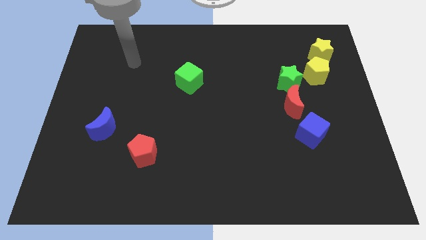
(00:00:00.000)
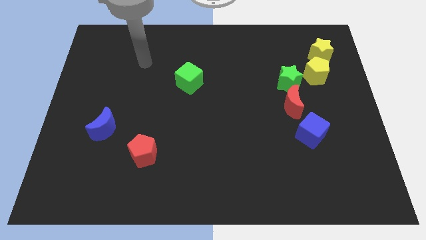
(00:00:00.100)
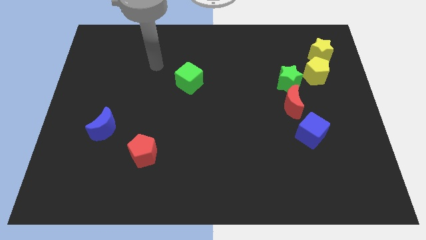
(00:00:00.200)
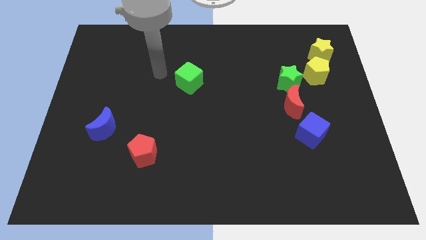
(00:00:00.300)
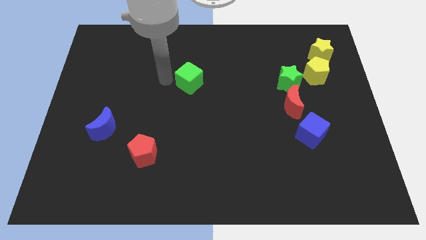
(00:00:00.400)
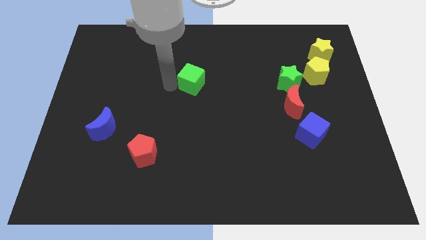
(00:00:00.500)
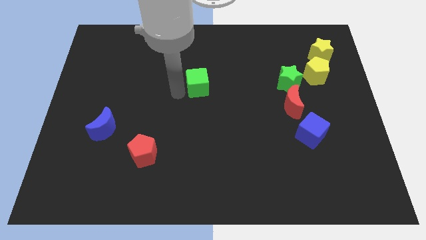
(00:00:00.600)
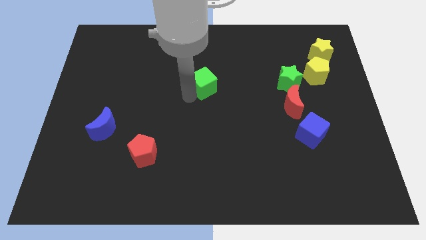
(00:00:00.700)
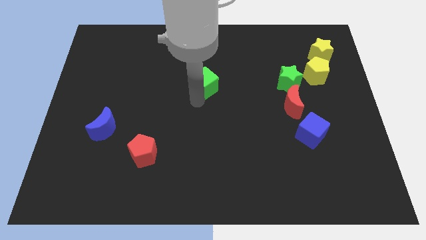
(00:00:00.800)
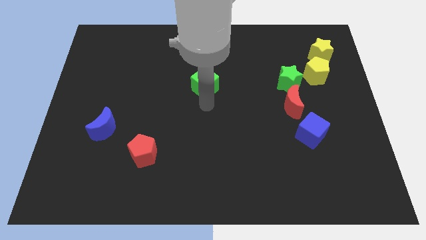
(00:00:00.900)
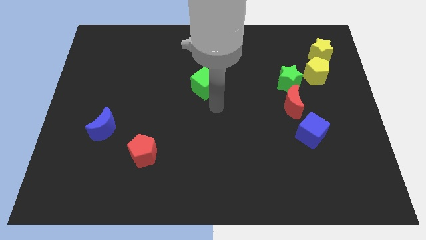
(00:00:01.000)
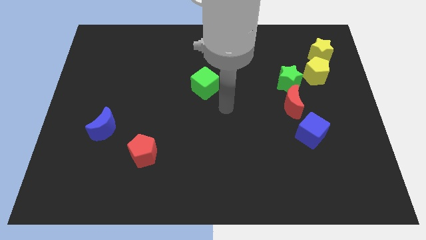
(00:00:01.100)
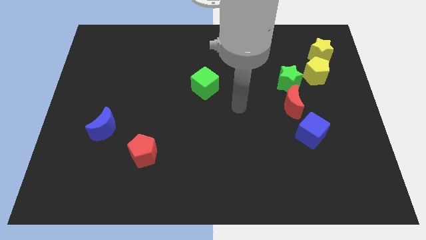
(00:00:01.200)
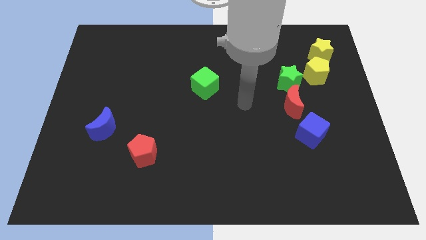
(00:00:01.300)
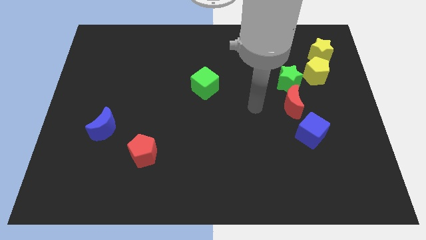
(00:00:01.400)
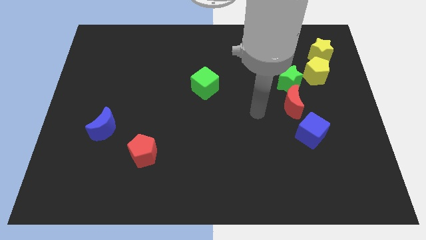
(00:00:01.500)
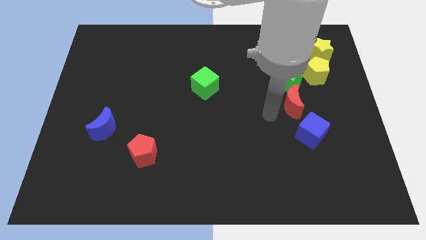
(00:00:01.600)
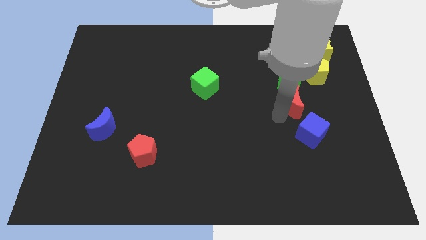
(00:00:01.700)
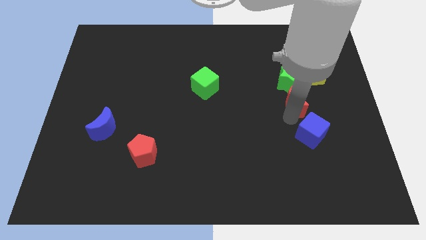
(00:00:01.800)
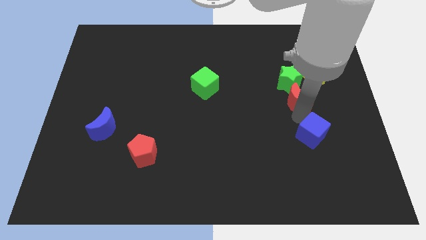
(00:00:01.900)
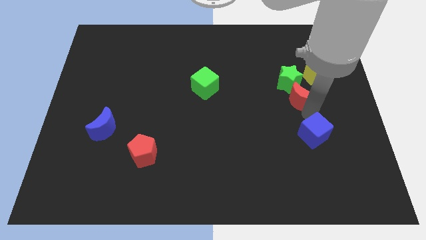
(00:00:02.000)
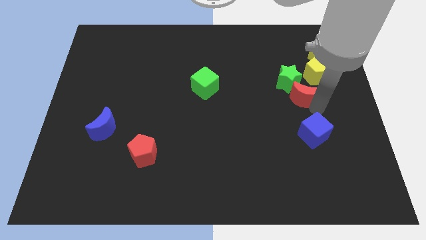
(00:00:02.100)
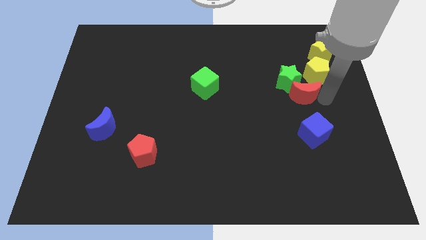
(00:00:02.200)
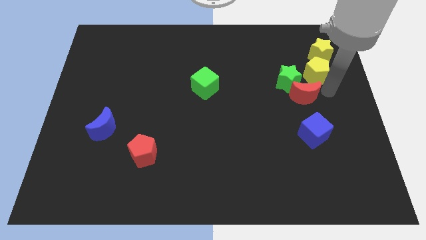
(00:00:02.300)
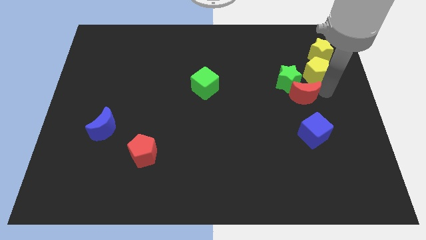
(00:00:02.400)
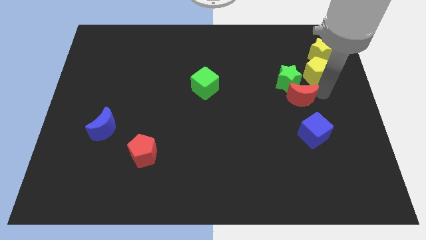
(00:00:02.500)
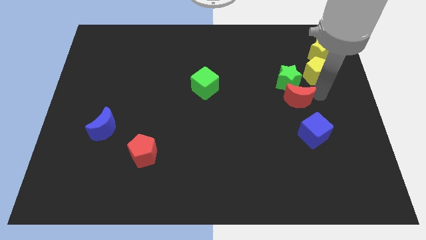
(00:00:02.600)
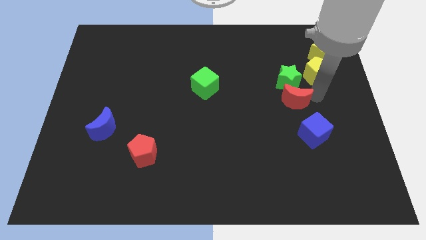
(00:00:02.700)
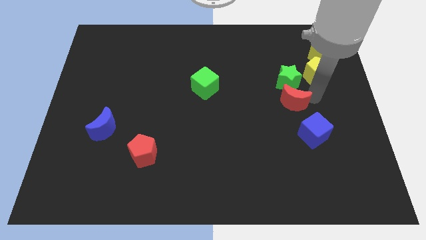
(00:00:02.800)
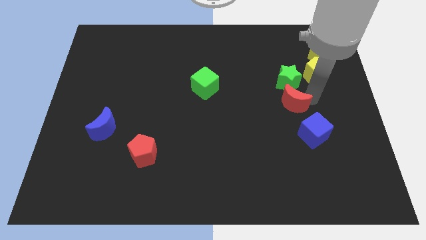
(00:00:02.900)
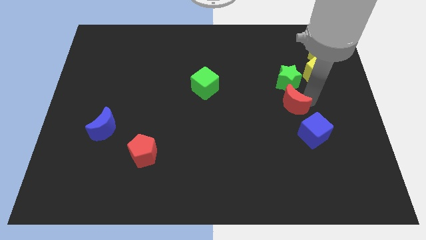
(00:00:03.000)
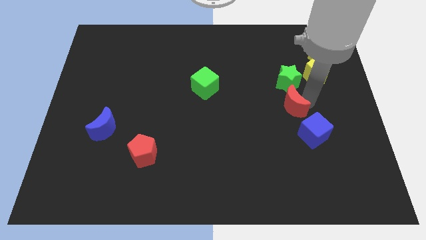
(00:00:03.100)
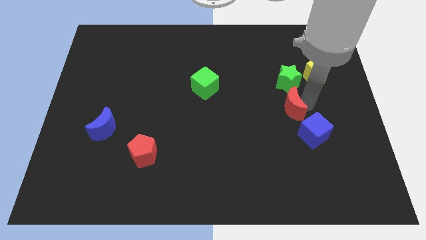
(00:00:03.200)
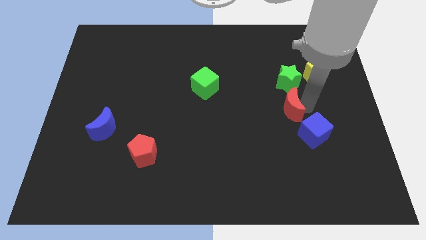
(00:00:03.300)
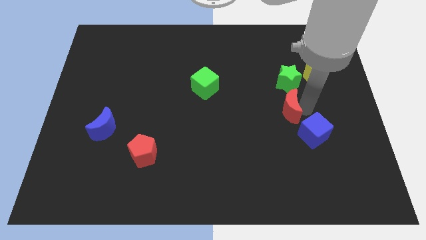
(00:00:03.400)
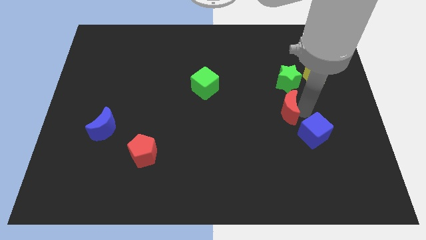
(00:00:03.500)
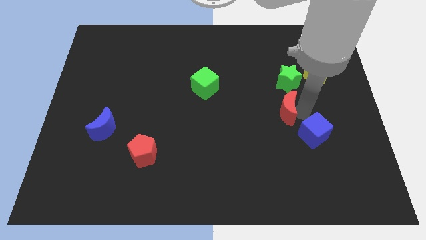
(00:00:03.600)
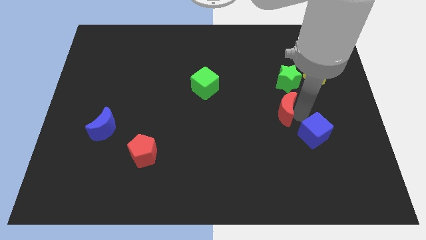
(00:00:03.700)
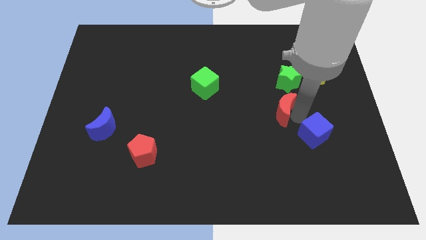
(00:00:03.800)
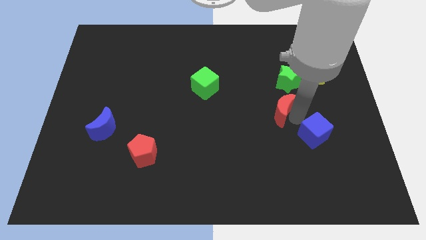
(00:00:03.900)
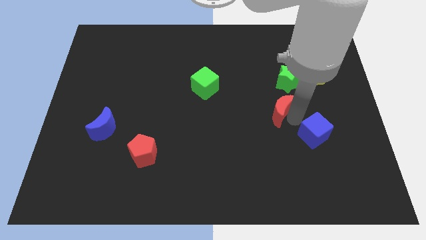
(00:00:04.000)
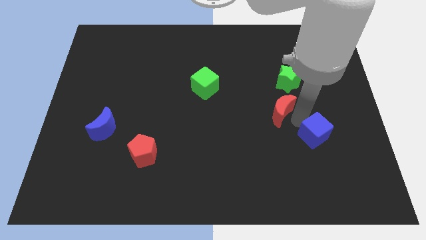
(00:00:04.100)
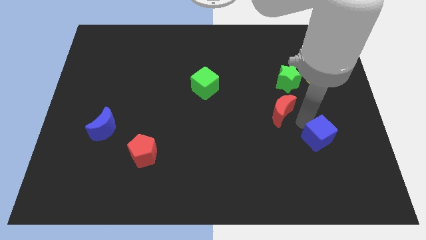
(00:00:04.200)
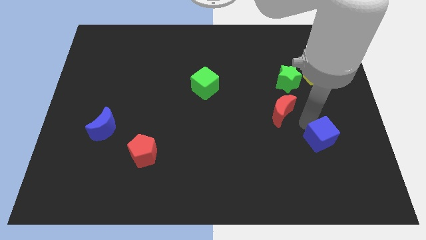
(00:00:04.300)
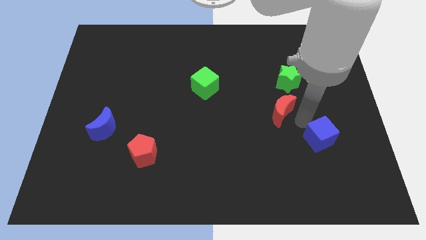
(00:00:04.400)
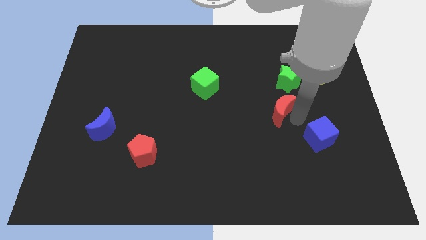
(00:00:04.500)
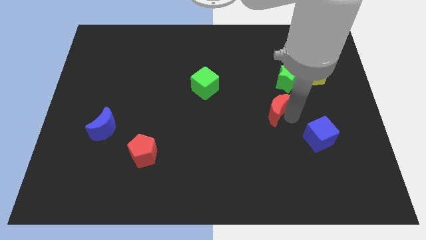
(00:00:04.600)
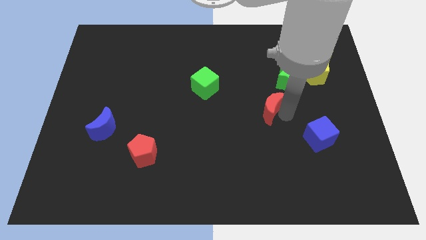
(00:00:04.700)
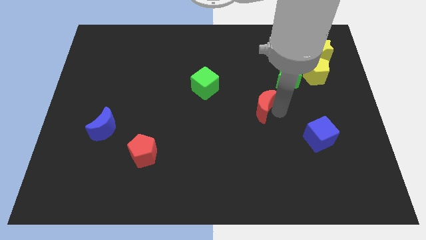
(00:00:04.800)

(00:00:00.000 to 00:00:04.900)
move the red moon slightly to the left

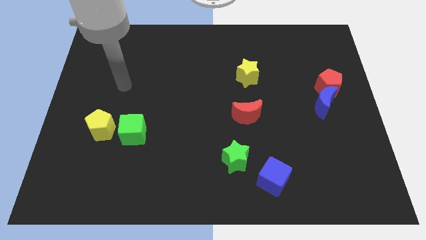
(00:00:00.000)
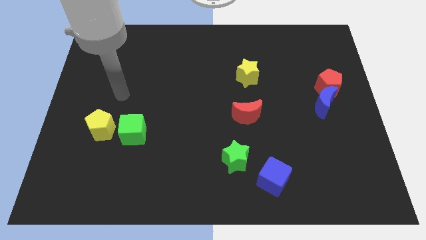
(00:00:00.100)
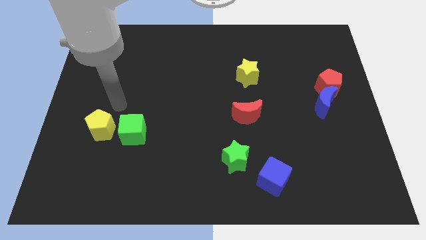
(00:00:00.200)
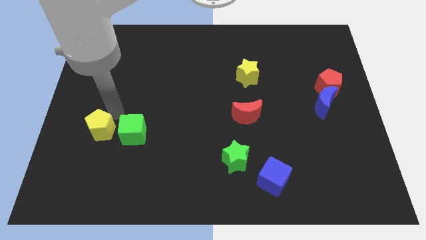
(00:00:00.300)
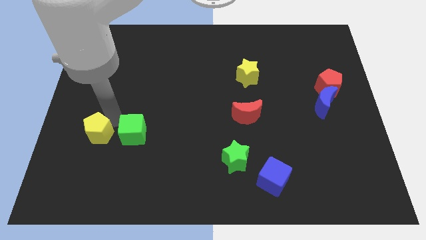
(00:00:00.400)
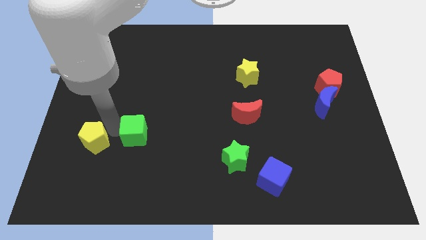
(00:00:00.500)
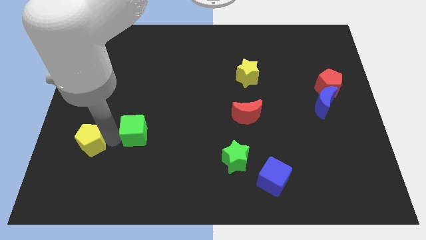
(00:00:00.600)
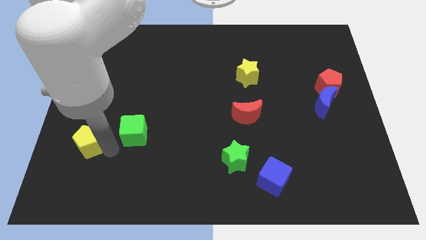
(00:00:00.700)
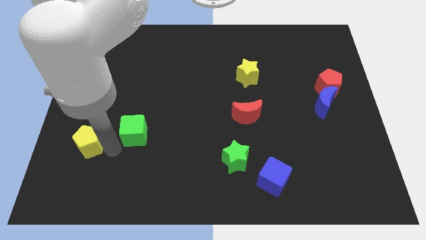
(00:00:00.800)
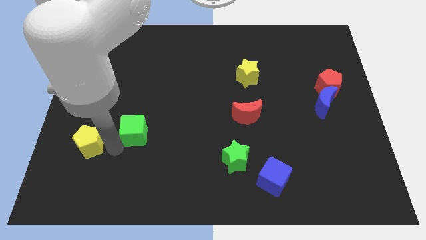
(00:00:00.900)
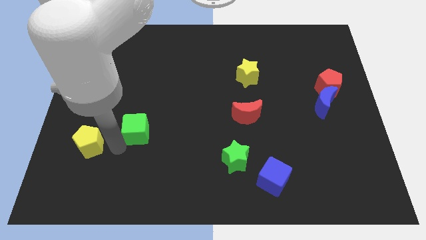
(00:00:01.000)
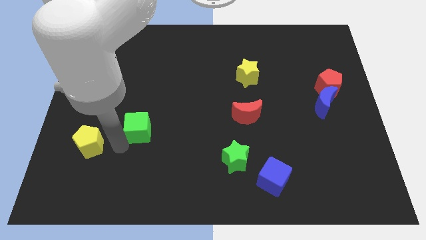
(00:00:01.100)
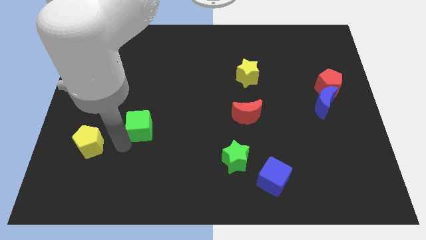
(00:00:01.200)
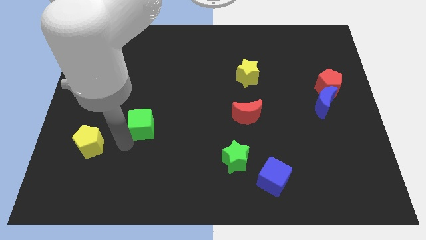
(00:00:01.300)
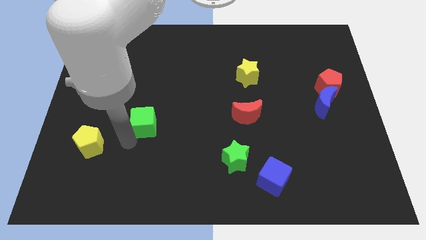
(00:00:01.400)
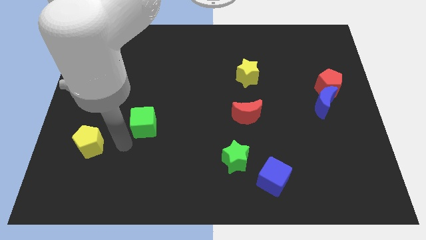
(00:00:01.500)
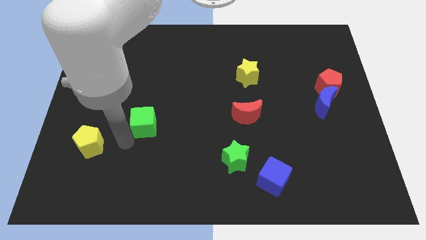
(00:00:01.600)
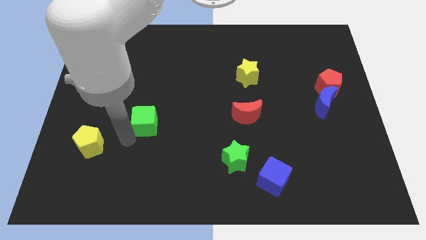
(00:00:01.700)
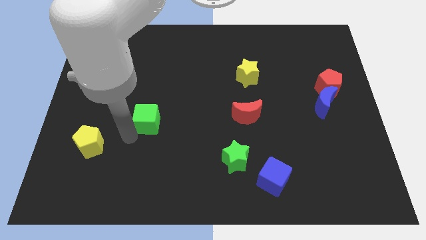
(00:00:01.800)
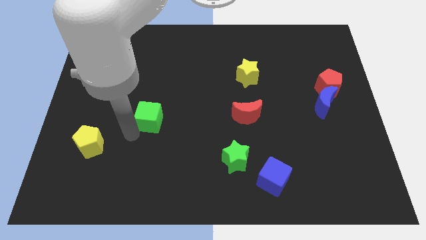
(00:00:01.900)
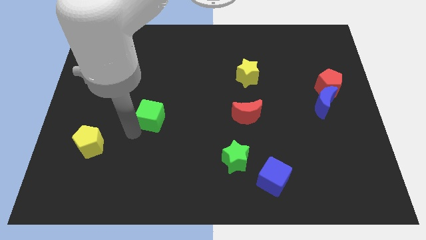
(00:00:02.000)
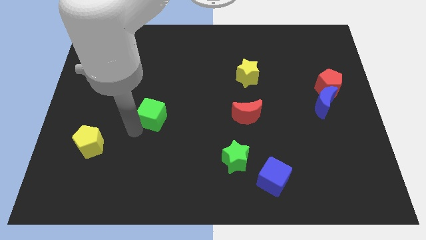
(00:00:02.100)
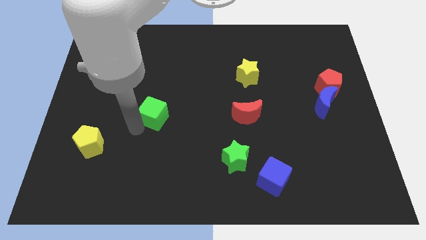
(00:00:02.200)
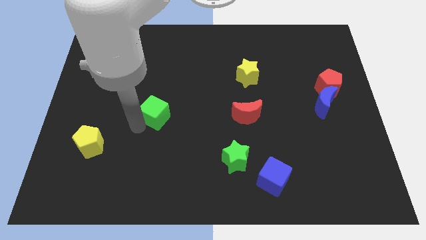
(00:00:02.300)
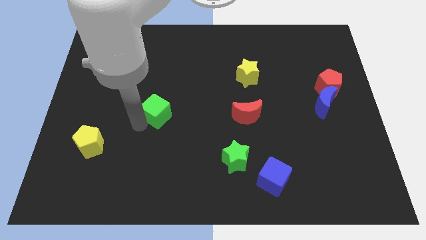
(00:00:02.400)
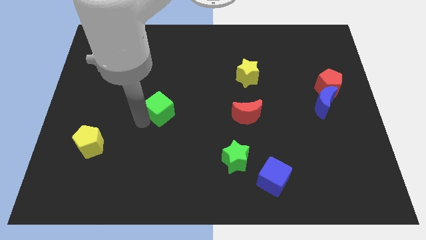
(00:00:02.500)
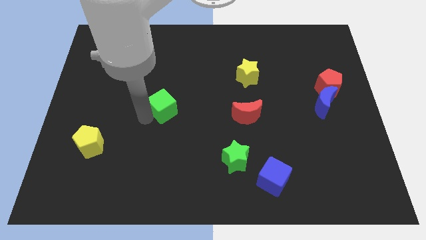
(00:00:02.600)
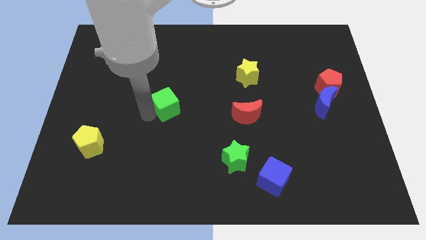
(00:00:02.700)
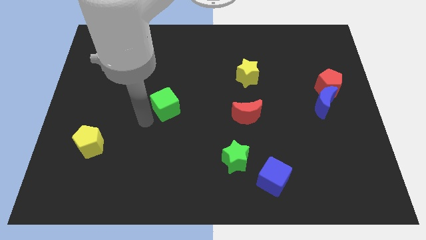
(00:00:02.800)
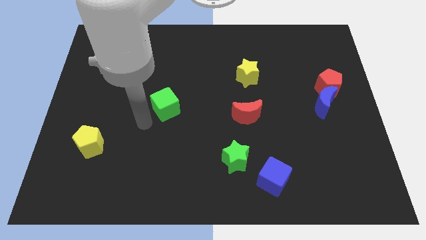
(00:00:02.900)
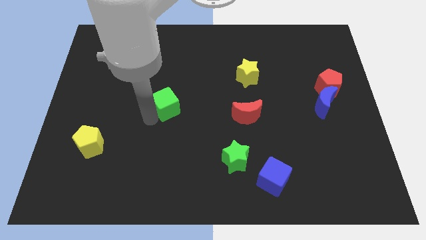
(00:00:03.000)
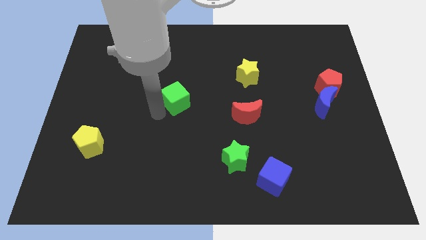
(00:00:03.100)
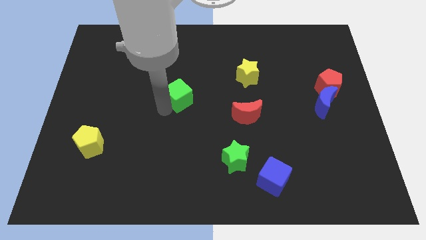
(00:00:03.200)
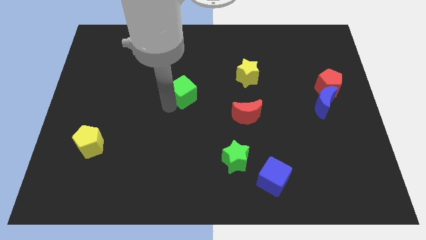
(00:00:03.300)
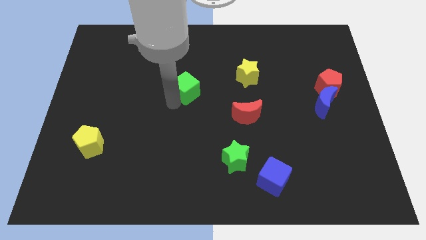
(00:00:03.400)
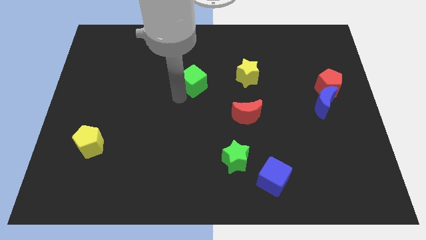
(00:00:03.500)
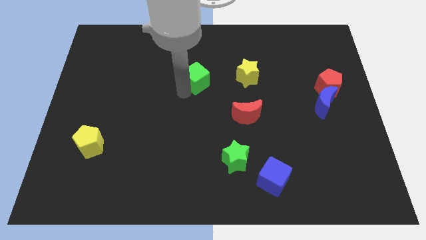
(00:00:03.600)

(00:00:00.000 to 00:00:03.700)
slide the green cube upwards and right
